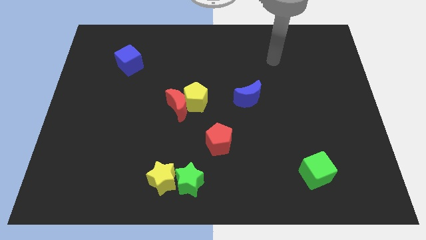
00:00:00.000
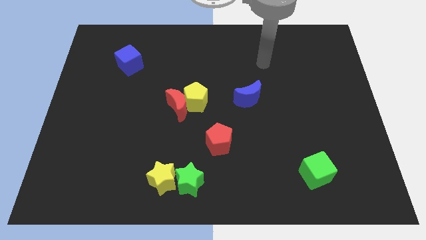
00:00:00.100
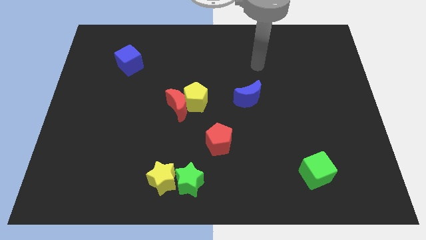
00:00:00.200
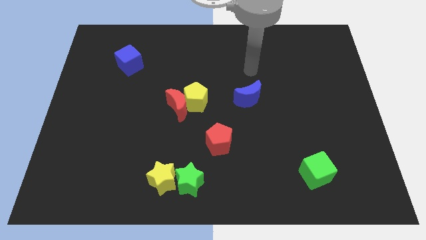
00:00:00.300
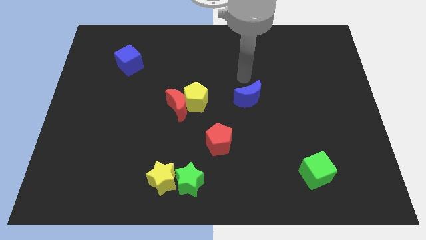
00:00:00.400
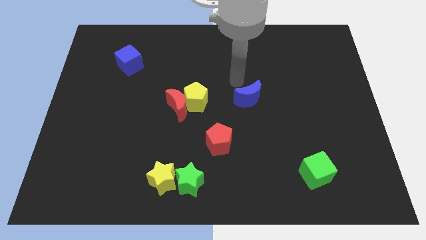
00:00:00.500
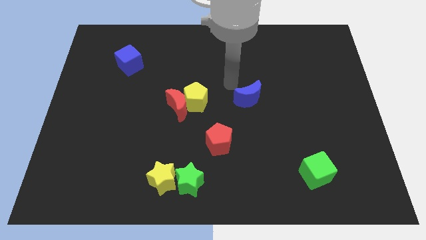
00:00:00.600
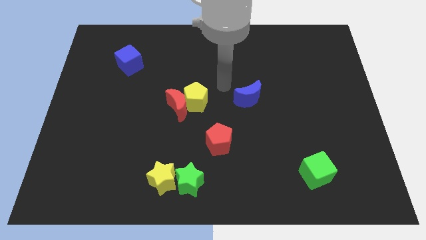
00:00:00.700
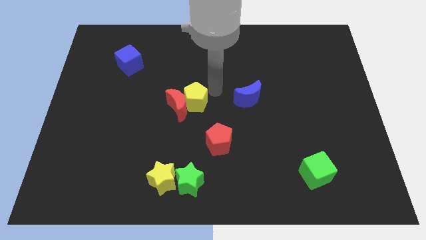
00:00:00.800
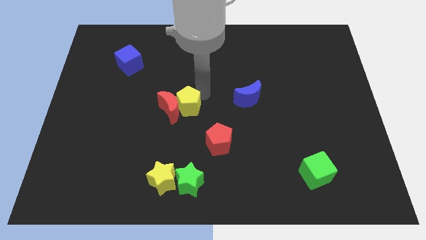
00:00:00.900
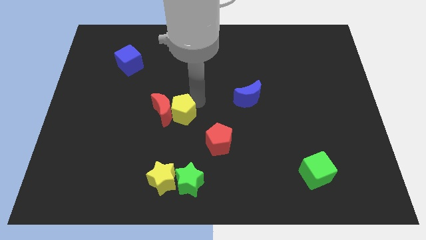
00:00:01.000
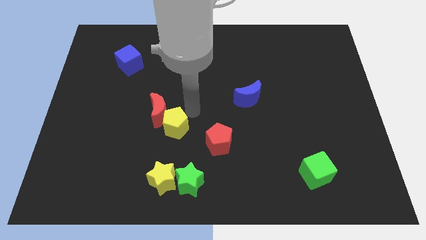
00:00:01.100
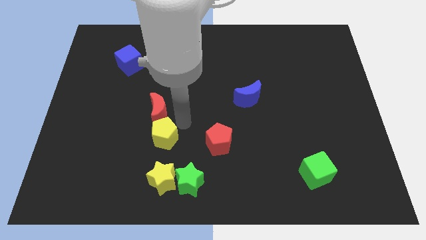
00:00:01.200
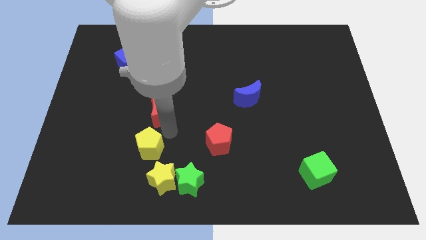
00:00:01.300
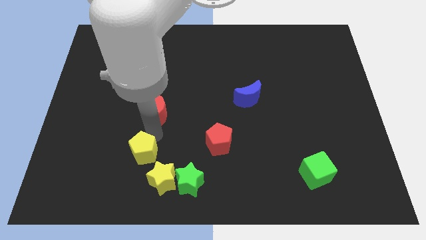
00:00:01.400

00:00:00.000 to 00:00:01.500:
separate the red moon from the yellow pentagon

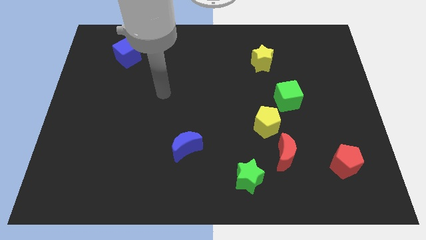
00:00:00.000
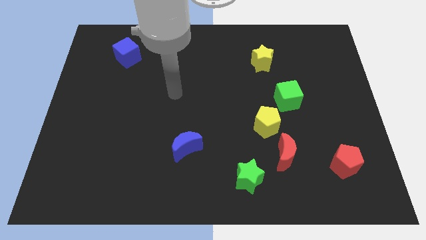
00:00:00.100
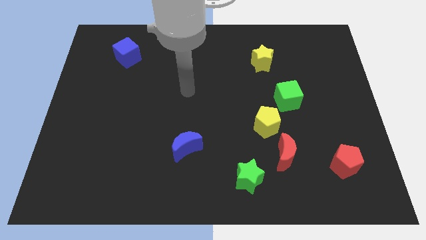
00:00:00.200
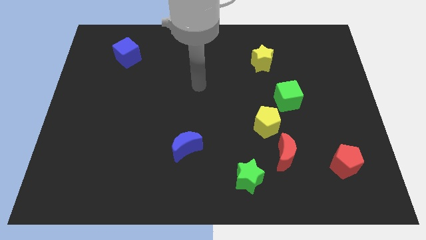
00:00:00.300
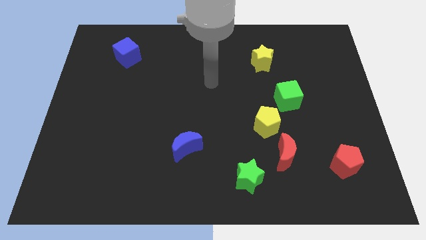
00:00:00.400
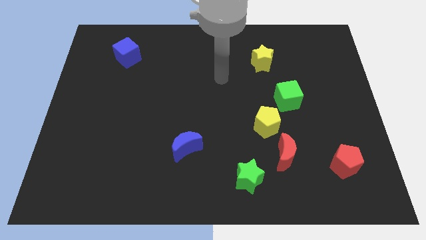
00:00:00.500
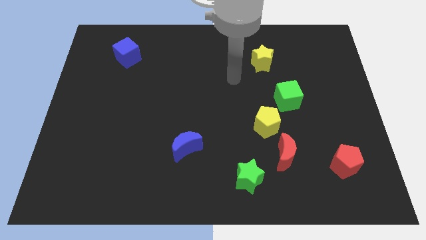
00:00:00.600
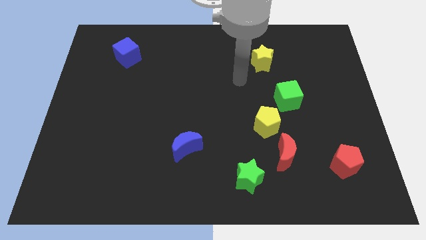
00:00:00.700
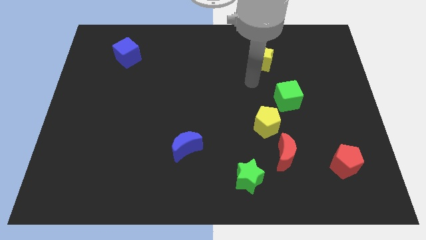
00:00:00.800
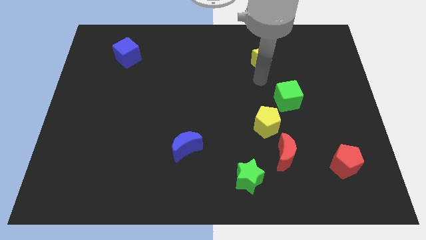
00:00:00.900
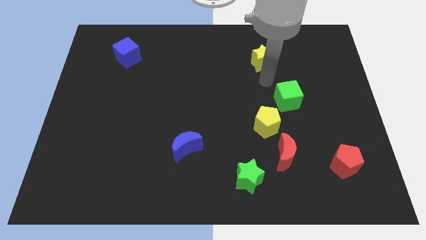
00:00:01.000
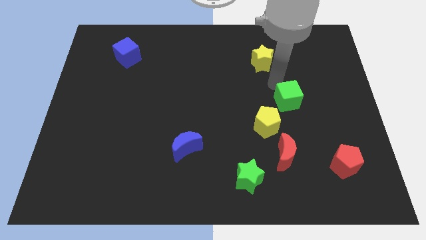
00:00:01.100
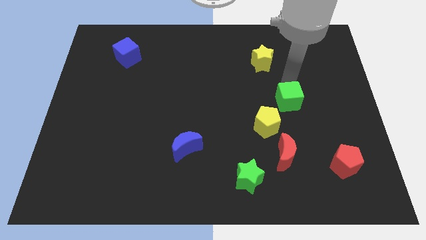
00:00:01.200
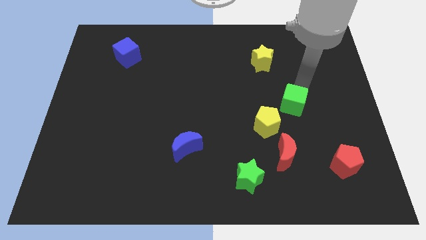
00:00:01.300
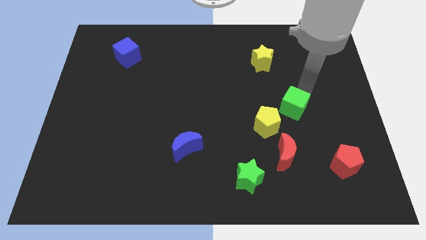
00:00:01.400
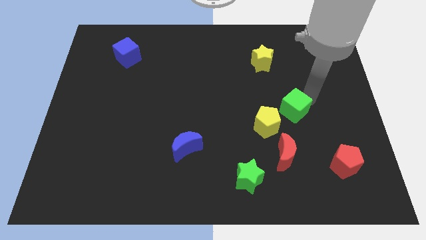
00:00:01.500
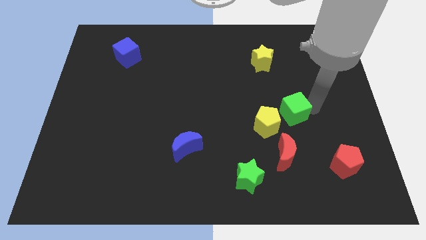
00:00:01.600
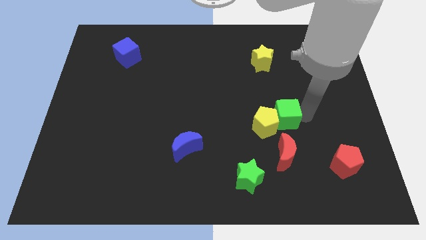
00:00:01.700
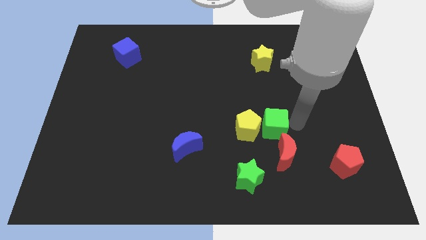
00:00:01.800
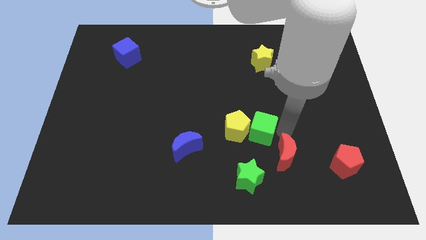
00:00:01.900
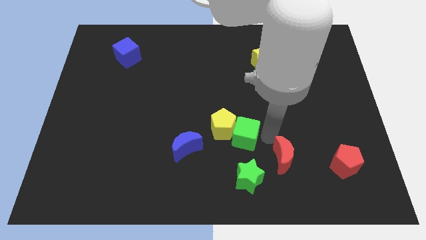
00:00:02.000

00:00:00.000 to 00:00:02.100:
separate the yellow pentagon from the red moon and green cube

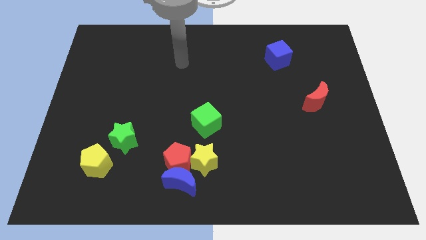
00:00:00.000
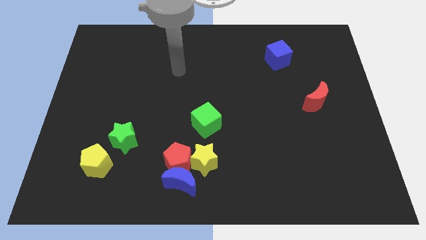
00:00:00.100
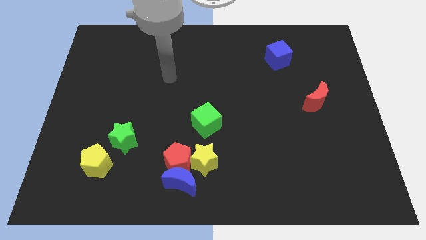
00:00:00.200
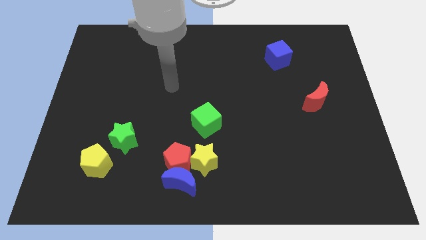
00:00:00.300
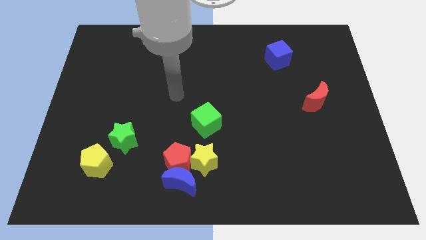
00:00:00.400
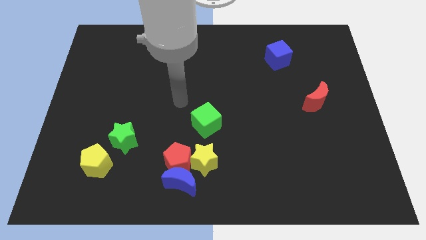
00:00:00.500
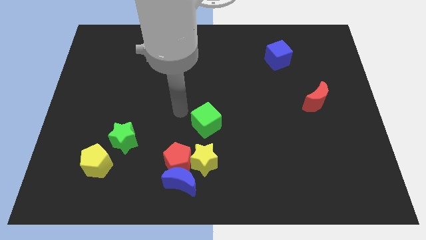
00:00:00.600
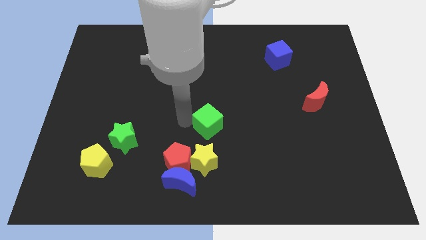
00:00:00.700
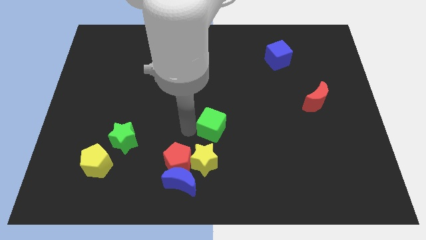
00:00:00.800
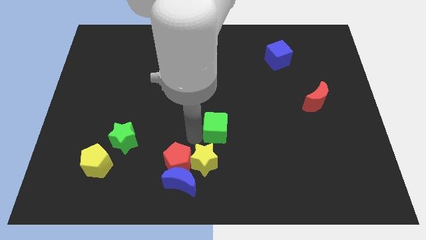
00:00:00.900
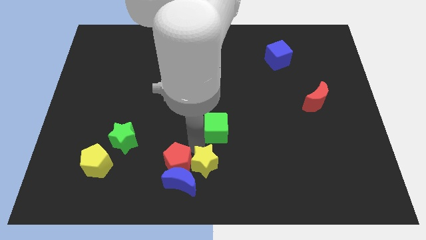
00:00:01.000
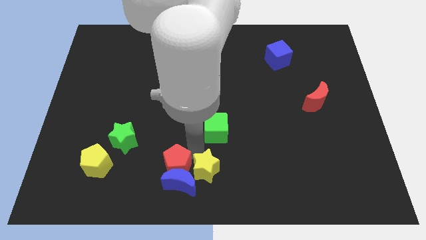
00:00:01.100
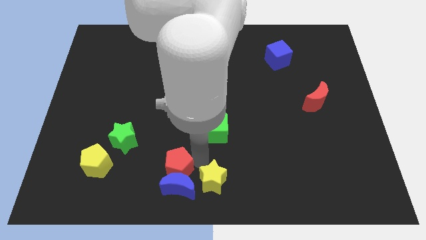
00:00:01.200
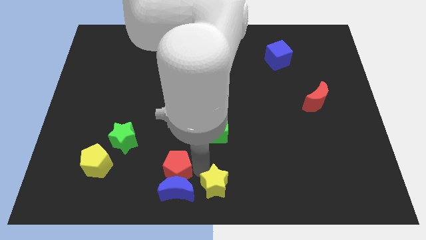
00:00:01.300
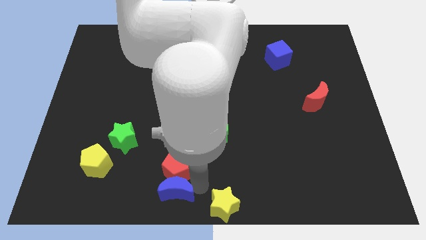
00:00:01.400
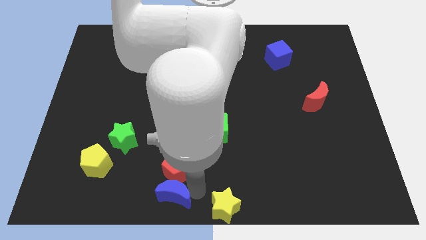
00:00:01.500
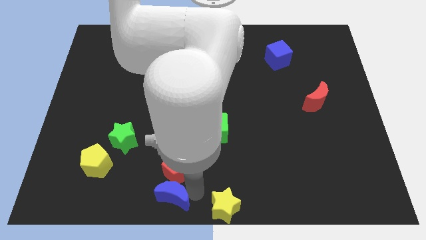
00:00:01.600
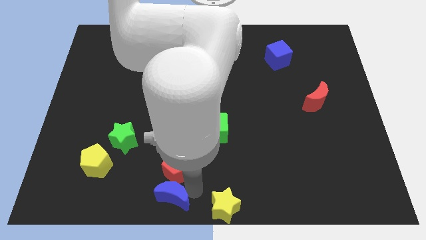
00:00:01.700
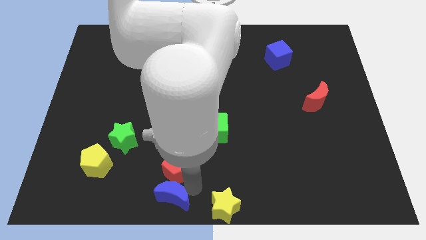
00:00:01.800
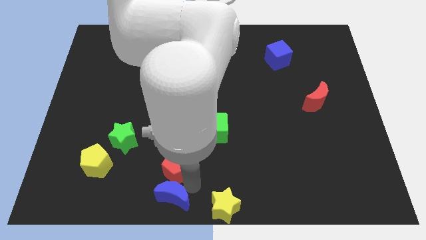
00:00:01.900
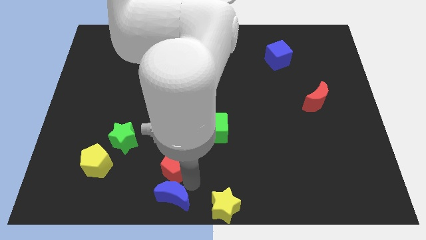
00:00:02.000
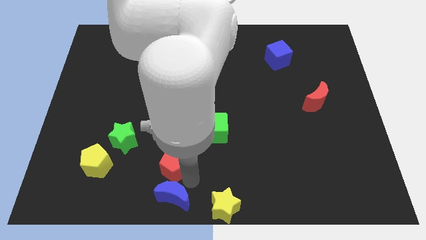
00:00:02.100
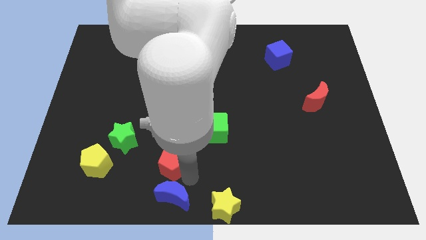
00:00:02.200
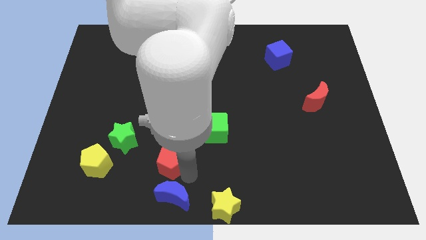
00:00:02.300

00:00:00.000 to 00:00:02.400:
pull the red pentagon apart from the blue moon and yellow star

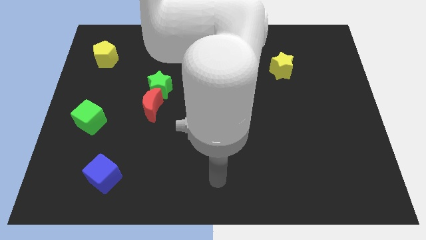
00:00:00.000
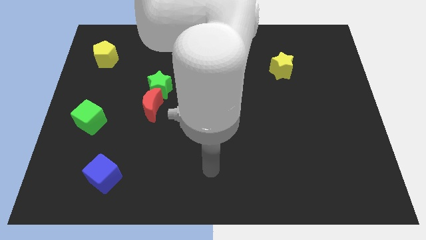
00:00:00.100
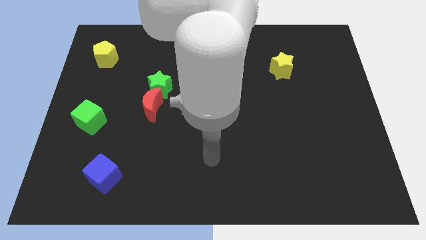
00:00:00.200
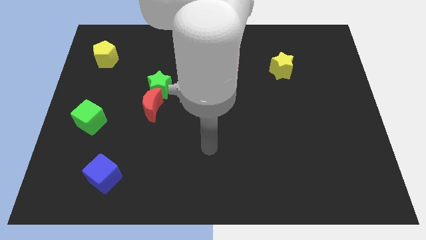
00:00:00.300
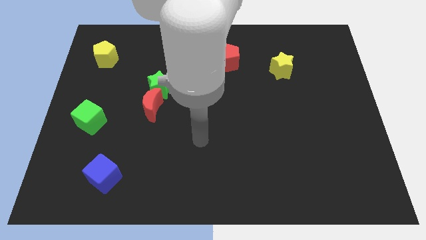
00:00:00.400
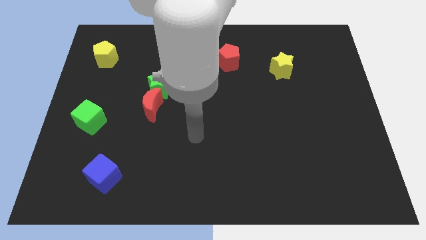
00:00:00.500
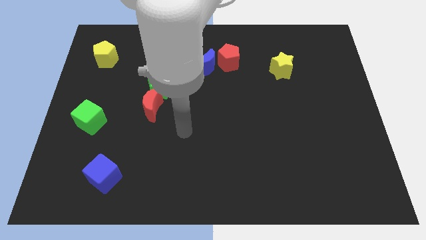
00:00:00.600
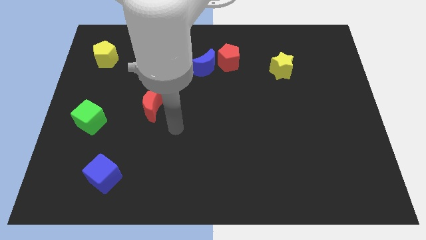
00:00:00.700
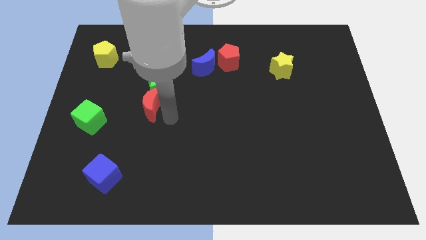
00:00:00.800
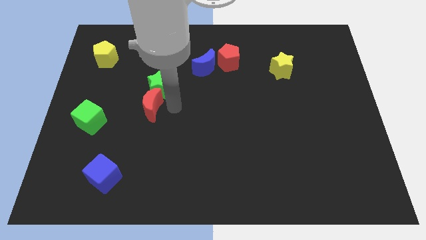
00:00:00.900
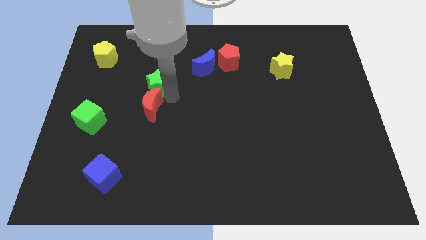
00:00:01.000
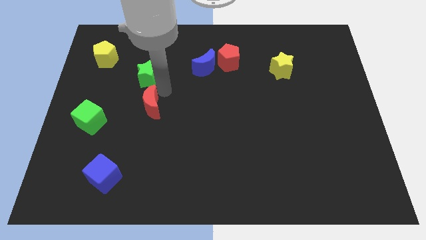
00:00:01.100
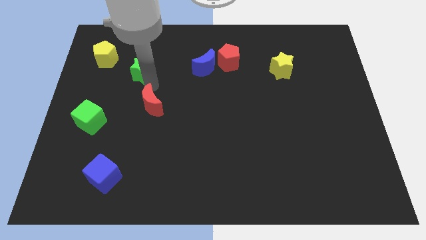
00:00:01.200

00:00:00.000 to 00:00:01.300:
separate the red moon from the green star

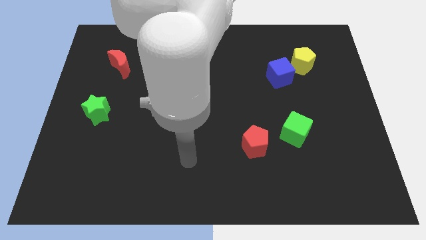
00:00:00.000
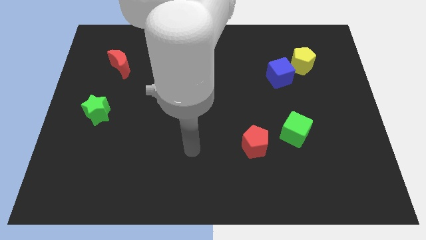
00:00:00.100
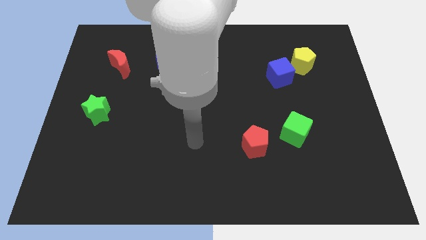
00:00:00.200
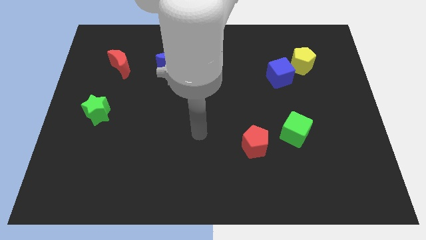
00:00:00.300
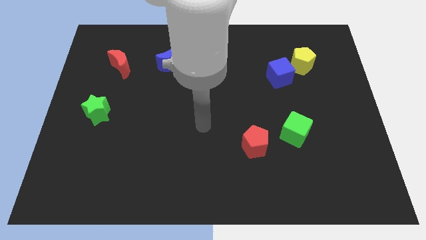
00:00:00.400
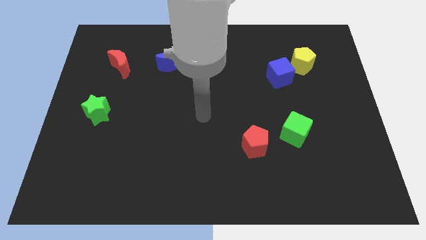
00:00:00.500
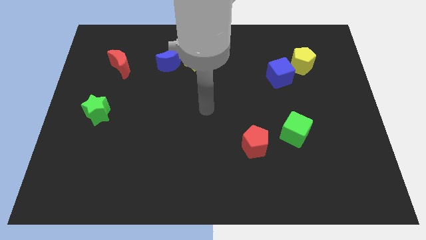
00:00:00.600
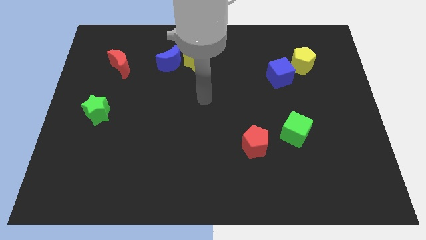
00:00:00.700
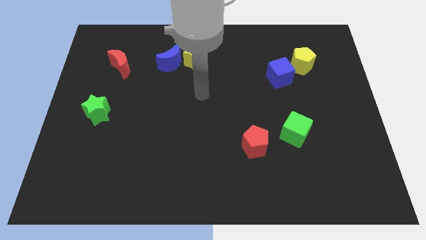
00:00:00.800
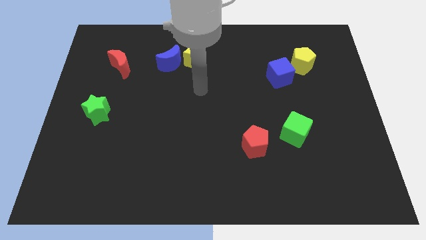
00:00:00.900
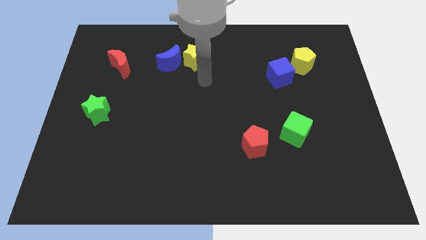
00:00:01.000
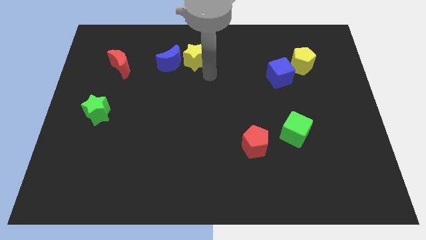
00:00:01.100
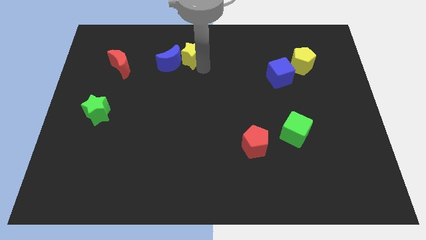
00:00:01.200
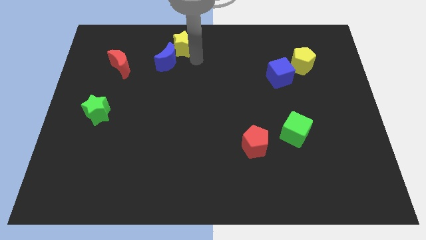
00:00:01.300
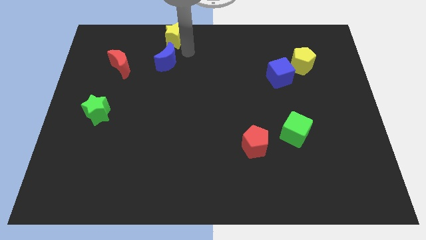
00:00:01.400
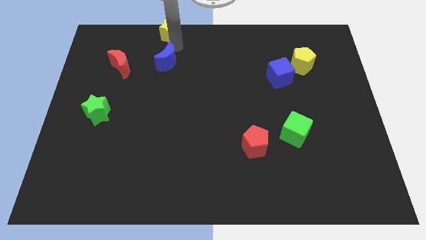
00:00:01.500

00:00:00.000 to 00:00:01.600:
separate the blue moon from the yellow star

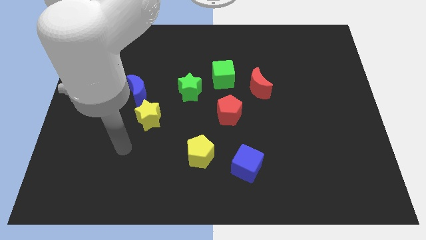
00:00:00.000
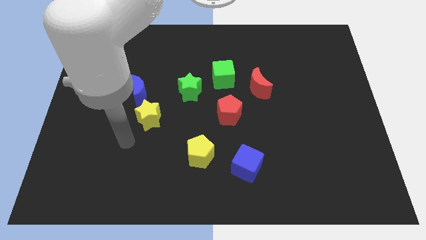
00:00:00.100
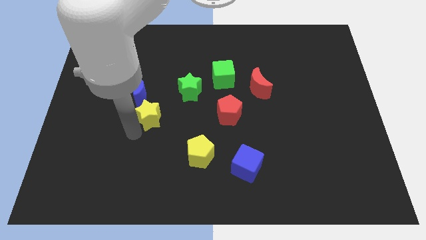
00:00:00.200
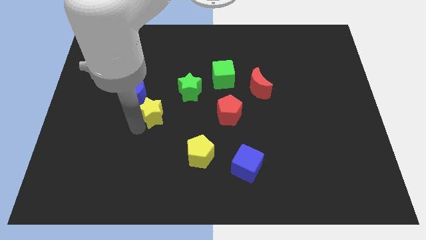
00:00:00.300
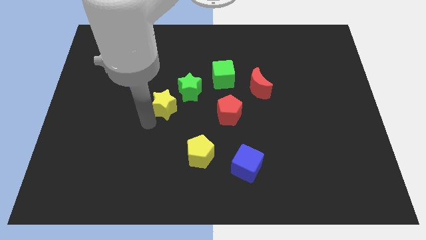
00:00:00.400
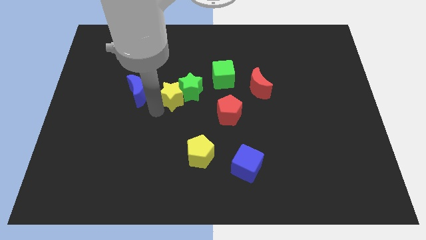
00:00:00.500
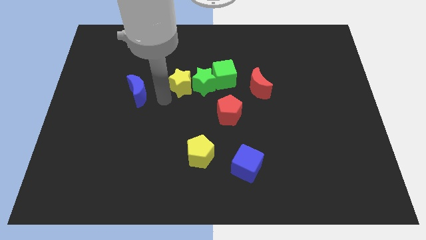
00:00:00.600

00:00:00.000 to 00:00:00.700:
move the blue moon away from the yellow star
